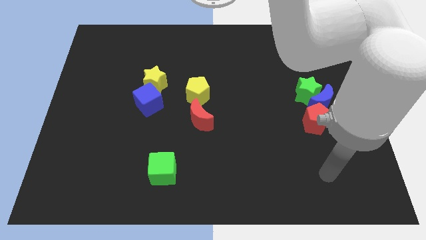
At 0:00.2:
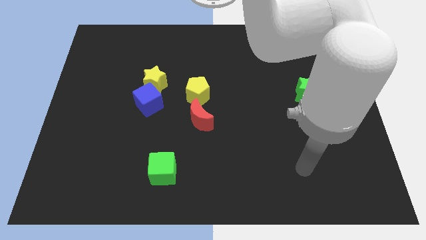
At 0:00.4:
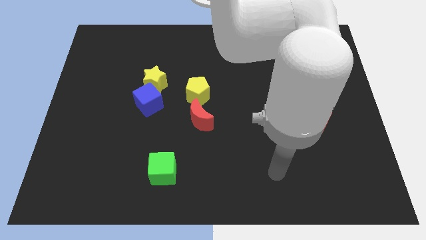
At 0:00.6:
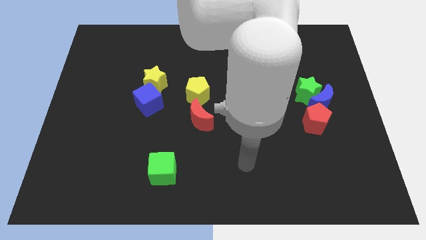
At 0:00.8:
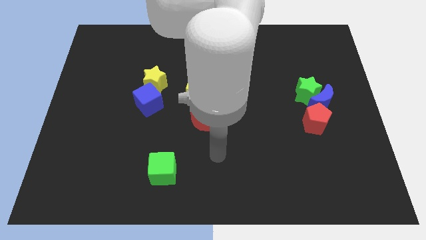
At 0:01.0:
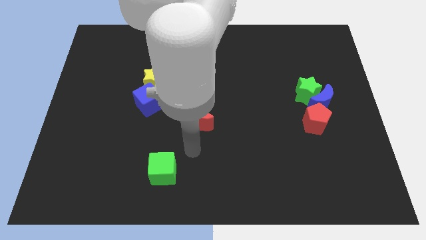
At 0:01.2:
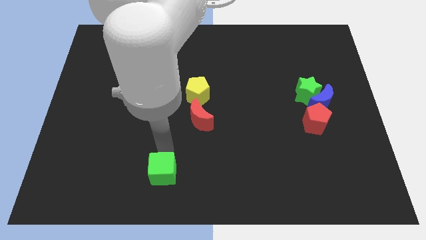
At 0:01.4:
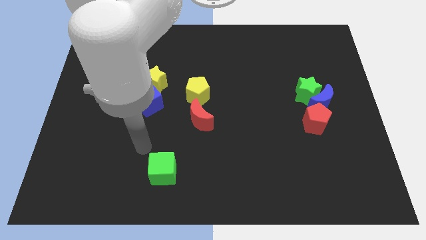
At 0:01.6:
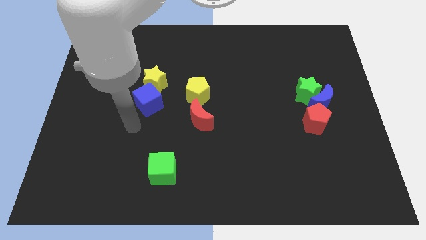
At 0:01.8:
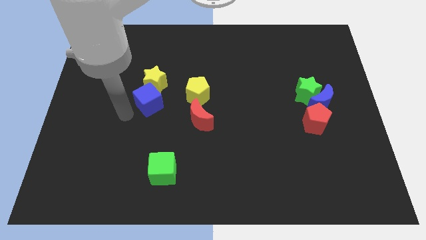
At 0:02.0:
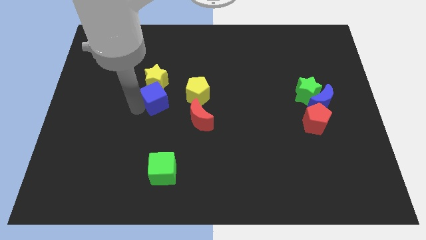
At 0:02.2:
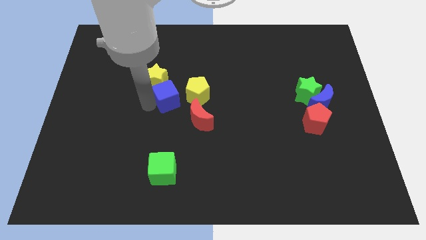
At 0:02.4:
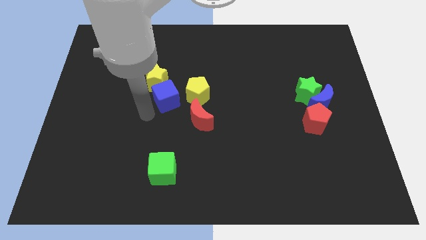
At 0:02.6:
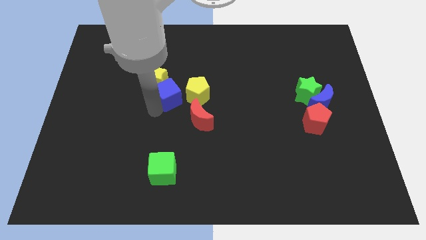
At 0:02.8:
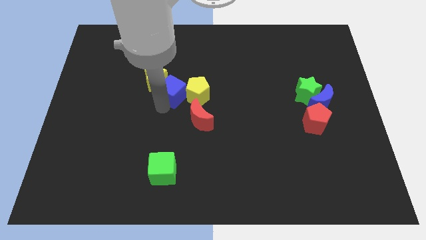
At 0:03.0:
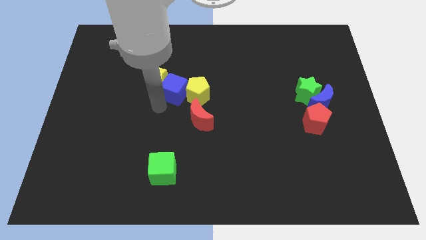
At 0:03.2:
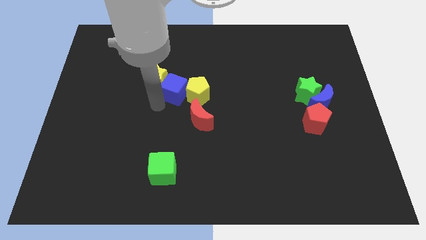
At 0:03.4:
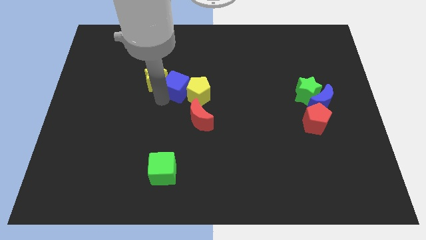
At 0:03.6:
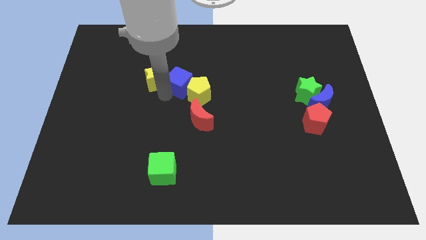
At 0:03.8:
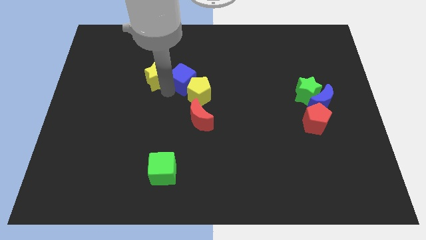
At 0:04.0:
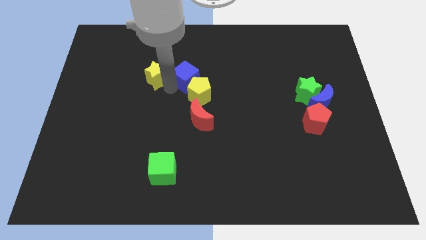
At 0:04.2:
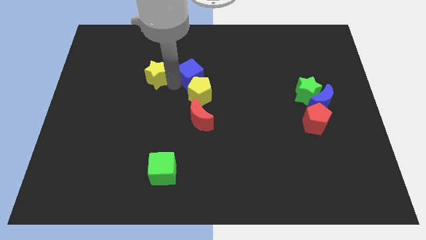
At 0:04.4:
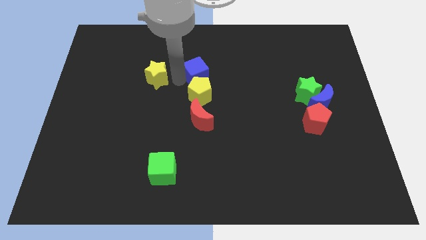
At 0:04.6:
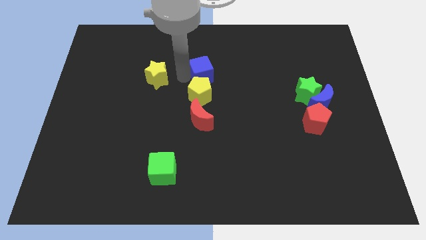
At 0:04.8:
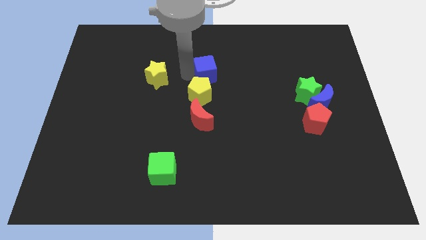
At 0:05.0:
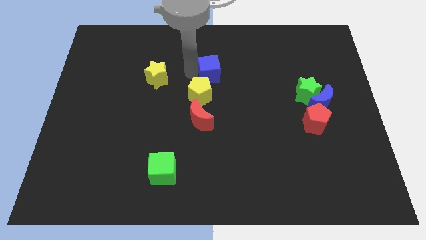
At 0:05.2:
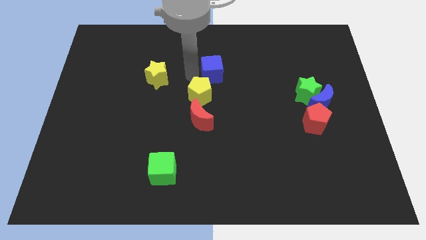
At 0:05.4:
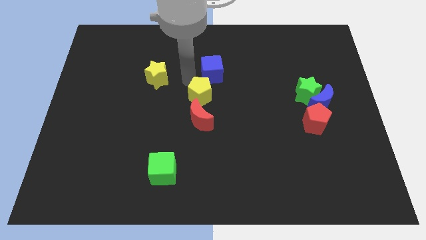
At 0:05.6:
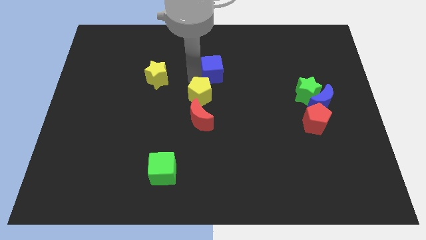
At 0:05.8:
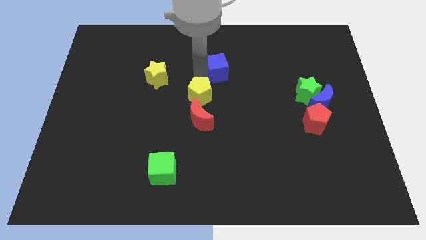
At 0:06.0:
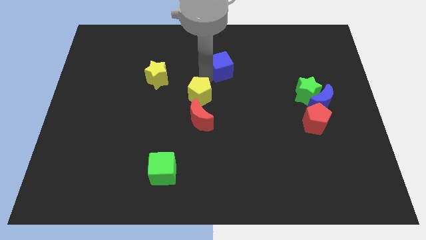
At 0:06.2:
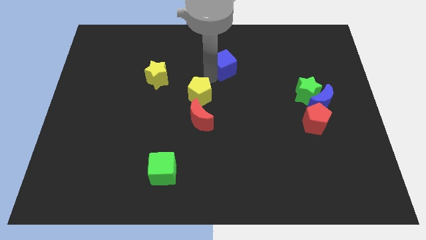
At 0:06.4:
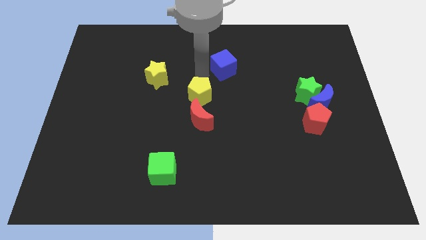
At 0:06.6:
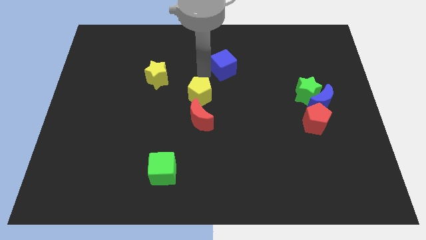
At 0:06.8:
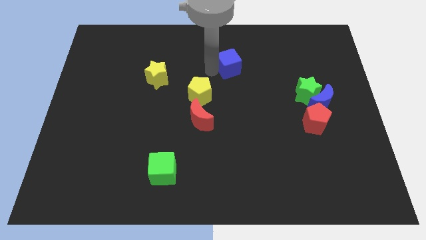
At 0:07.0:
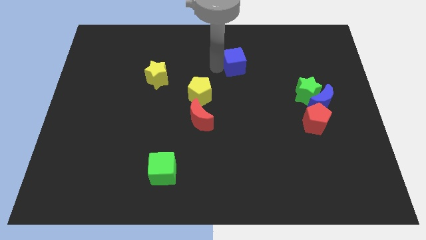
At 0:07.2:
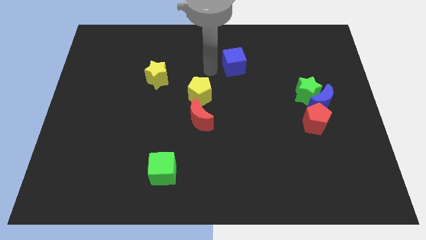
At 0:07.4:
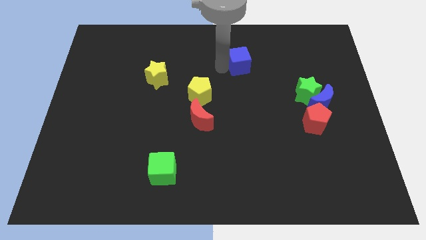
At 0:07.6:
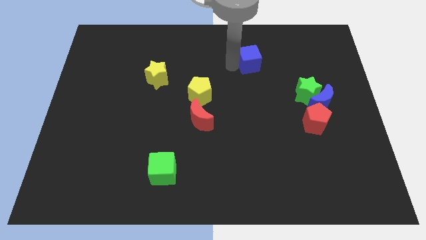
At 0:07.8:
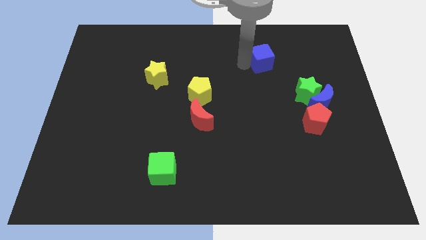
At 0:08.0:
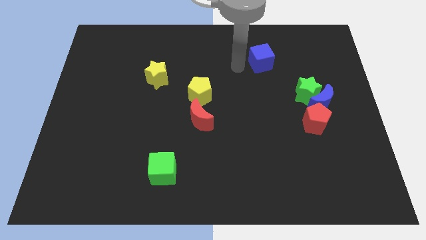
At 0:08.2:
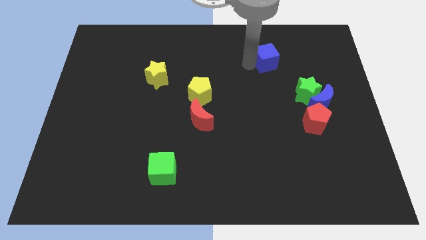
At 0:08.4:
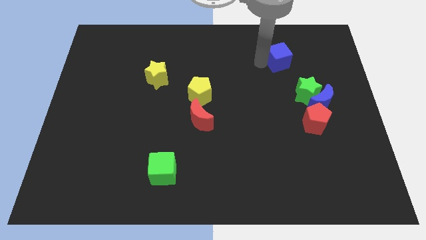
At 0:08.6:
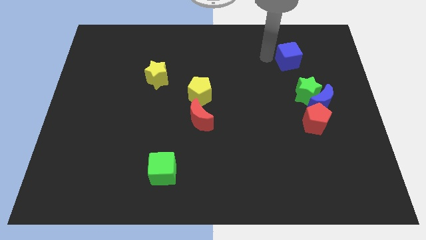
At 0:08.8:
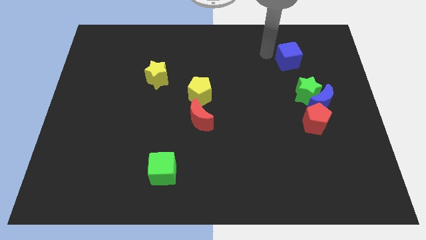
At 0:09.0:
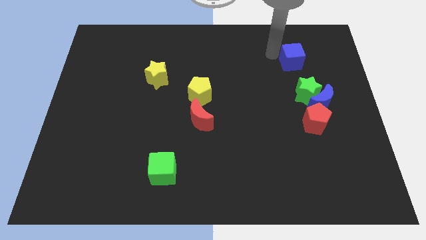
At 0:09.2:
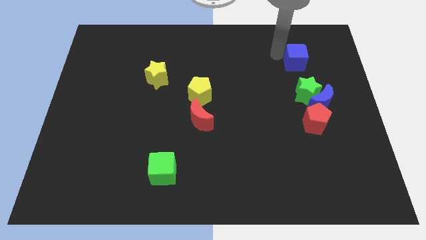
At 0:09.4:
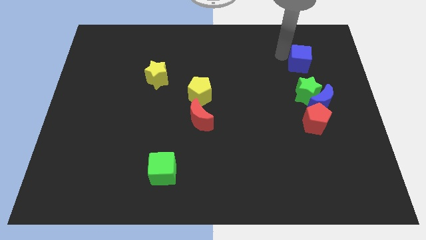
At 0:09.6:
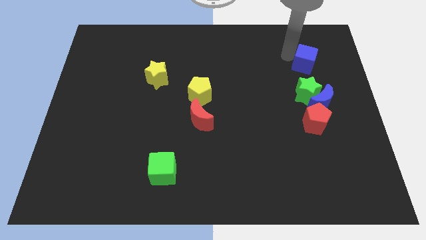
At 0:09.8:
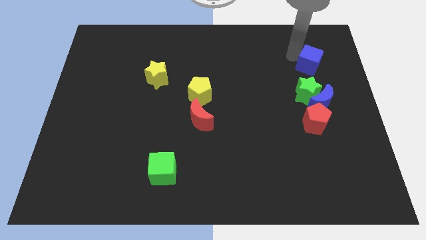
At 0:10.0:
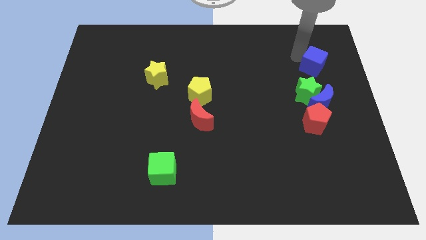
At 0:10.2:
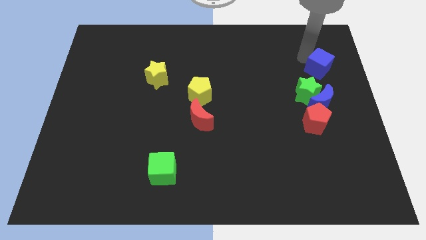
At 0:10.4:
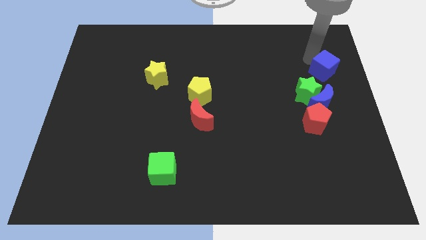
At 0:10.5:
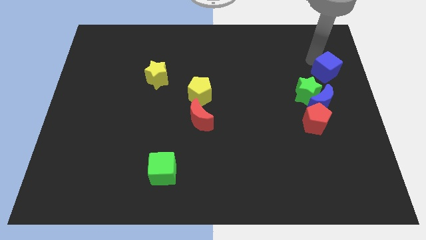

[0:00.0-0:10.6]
put the blue cube to the center right

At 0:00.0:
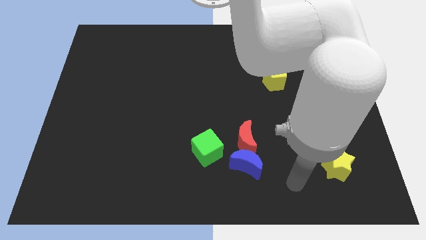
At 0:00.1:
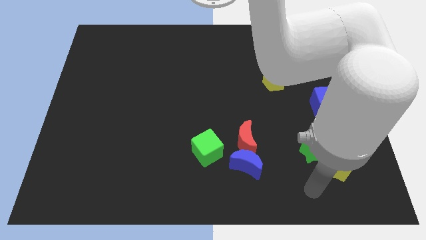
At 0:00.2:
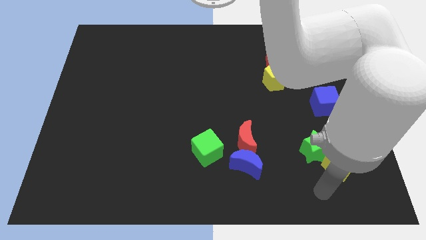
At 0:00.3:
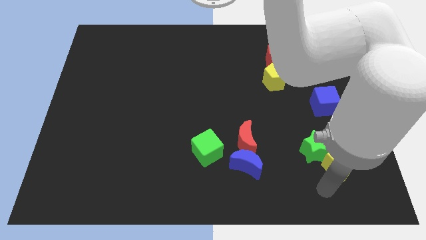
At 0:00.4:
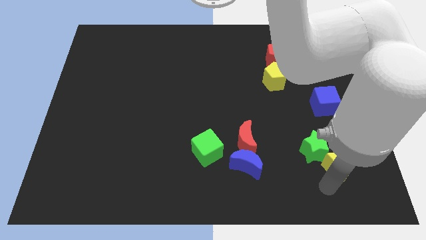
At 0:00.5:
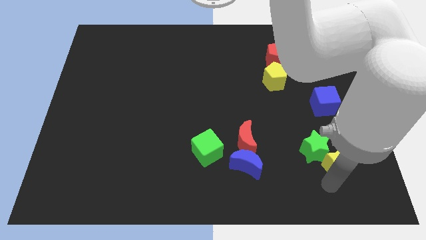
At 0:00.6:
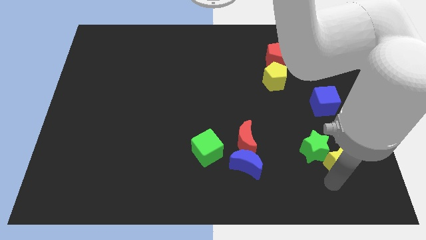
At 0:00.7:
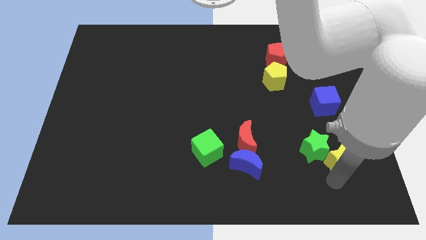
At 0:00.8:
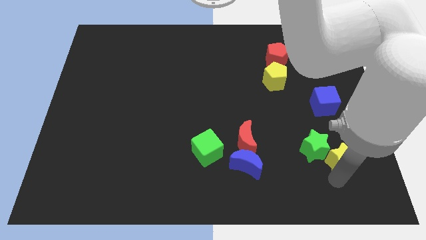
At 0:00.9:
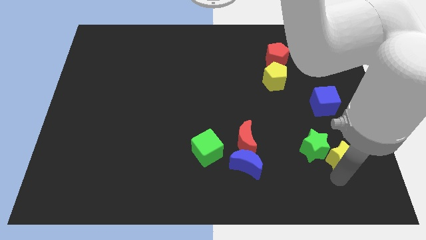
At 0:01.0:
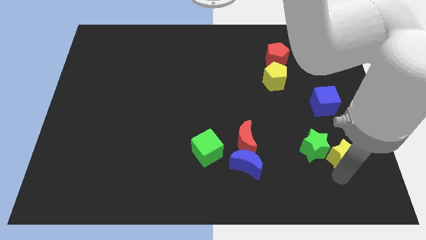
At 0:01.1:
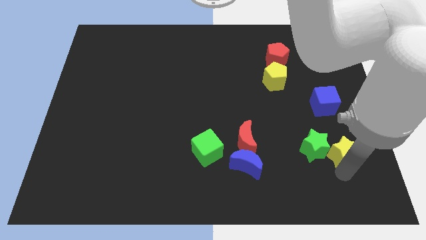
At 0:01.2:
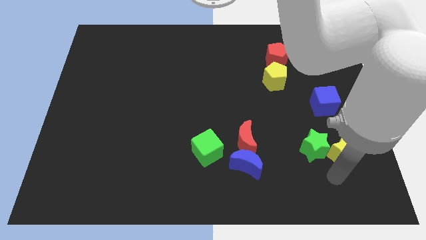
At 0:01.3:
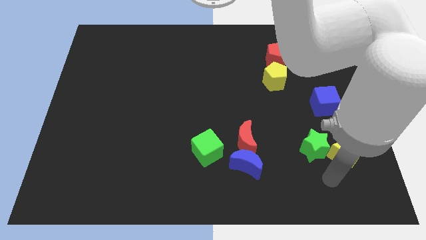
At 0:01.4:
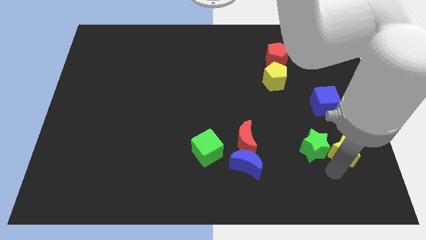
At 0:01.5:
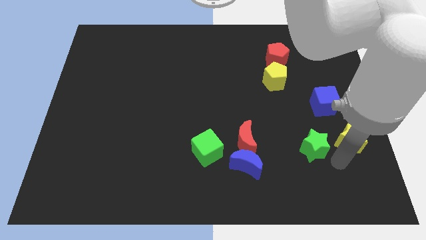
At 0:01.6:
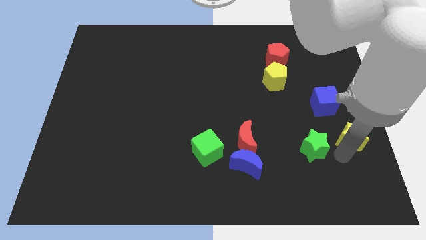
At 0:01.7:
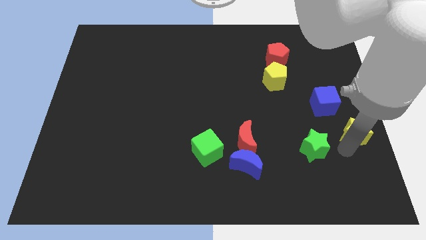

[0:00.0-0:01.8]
put the yellow star to the center right
